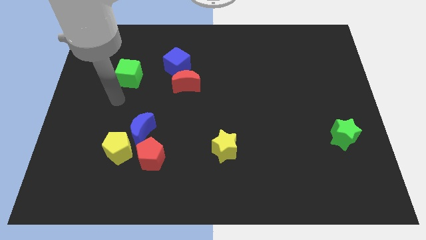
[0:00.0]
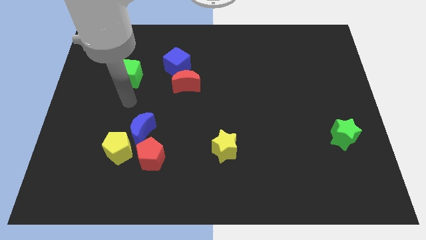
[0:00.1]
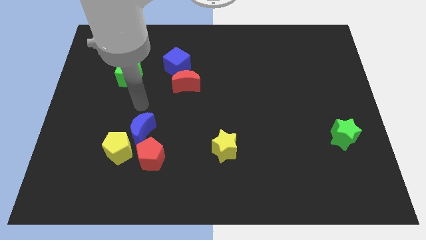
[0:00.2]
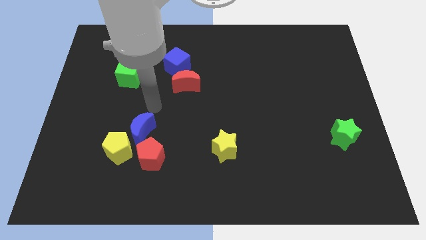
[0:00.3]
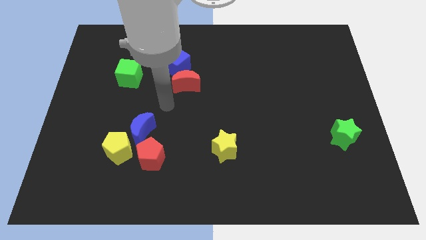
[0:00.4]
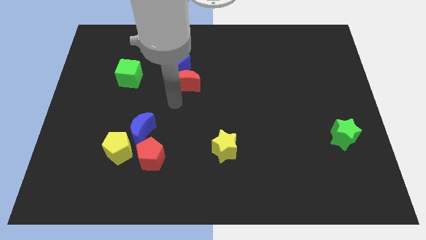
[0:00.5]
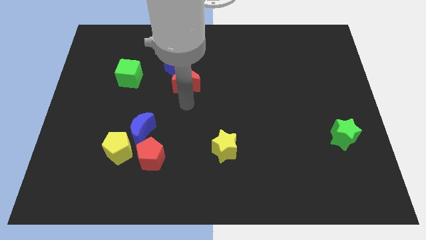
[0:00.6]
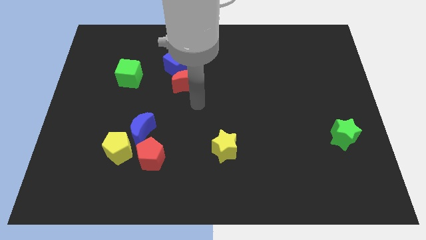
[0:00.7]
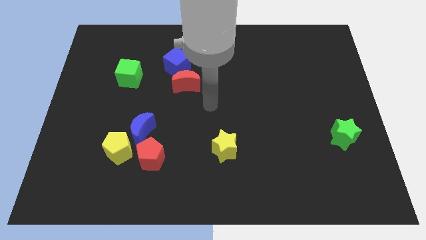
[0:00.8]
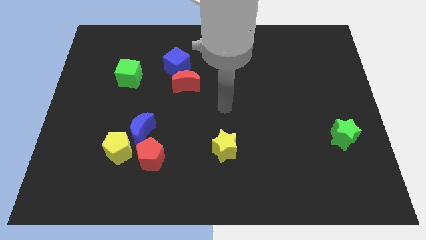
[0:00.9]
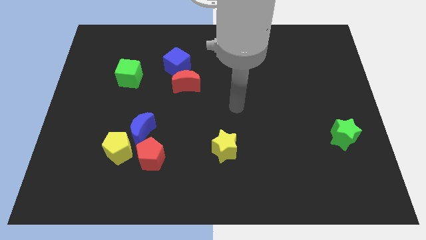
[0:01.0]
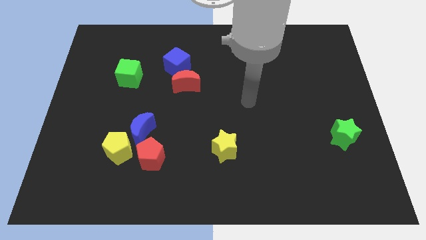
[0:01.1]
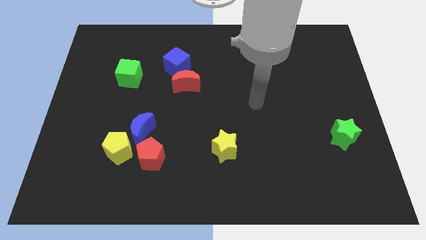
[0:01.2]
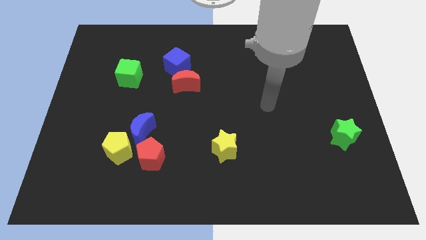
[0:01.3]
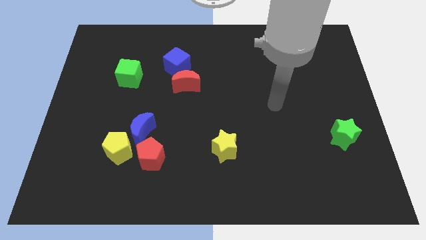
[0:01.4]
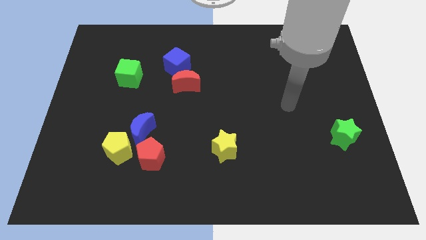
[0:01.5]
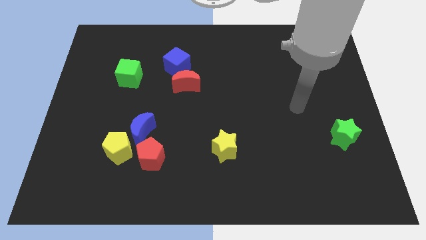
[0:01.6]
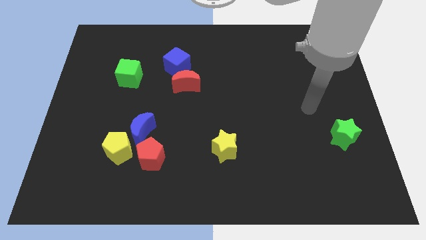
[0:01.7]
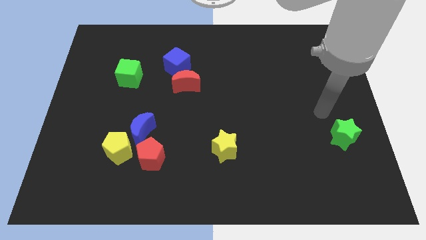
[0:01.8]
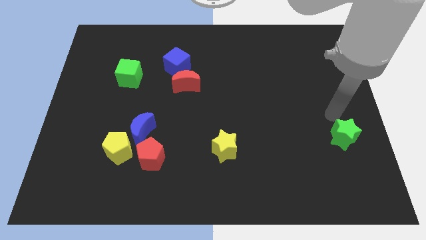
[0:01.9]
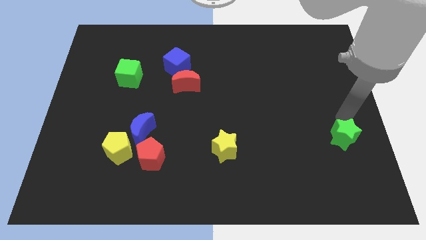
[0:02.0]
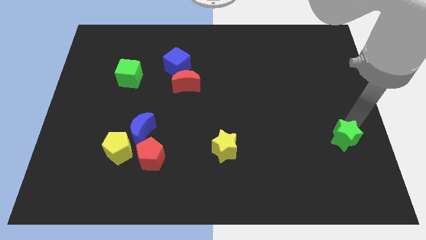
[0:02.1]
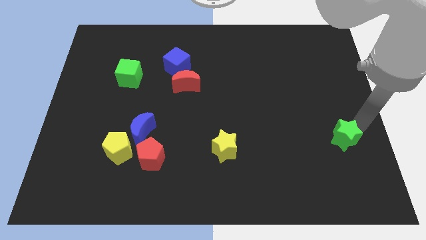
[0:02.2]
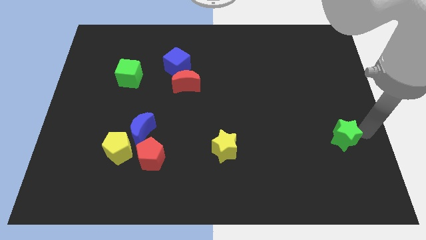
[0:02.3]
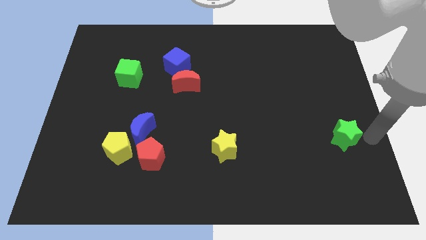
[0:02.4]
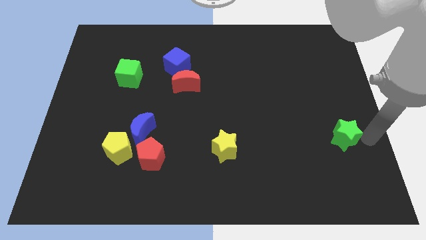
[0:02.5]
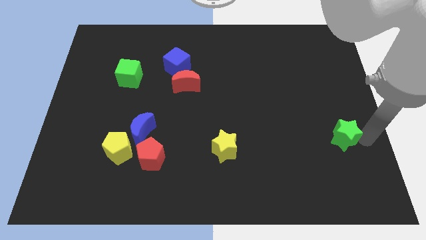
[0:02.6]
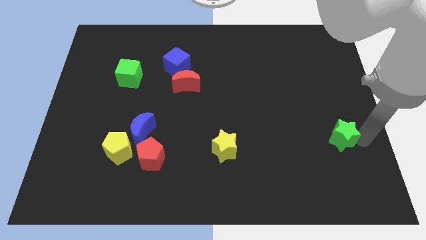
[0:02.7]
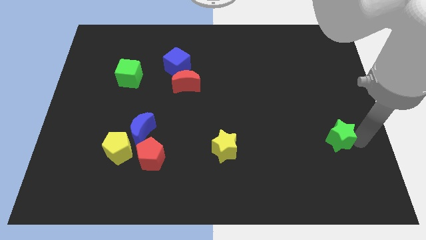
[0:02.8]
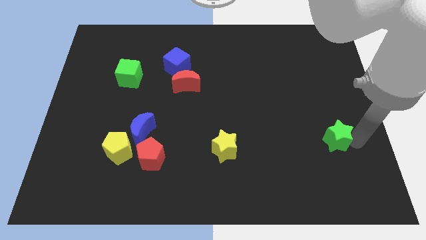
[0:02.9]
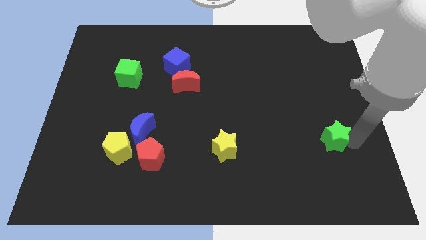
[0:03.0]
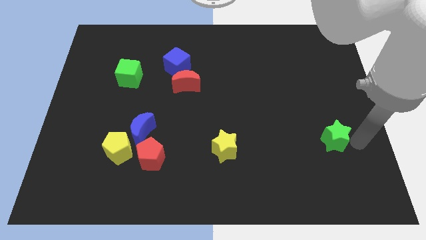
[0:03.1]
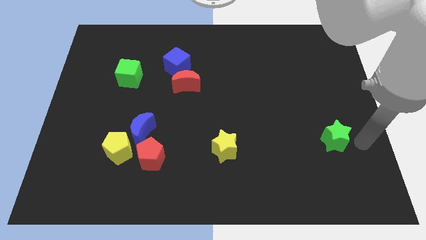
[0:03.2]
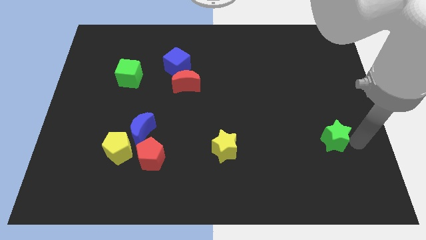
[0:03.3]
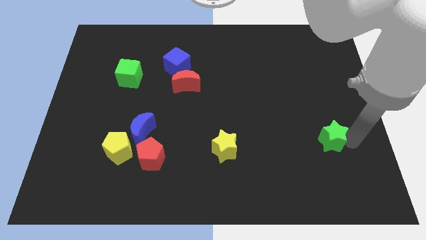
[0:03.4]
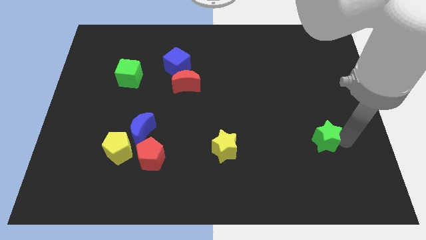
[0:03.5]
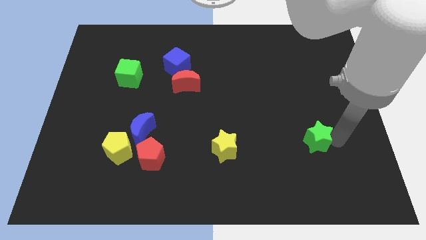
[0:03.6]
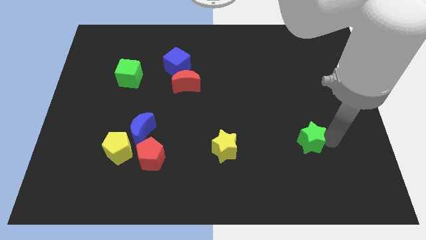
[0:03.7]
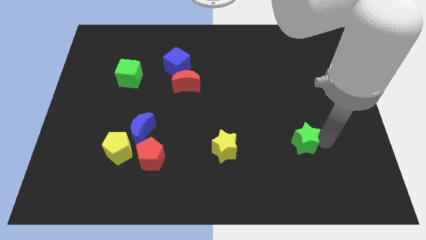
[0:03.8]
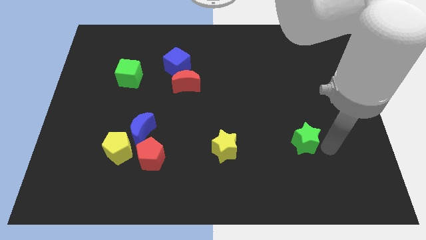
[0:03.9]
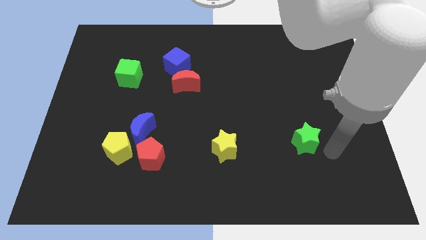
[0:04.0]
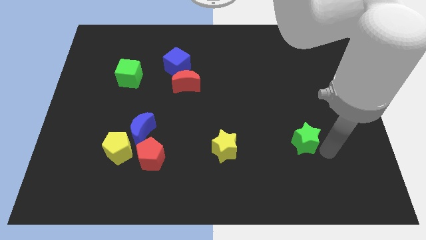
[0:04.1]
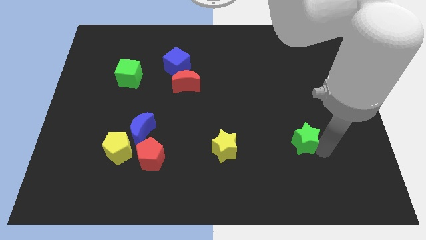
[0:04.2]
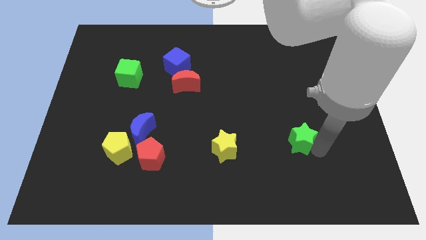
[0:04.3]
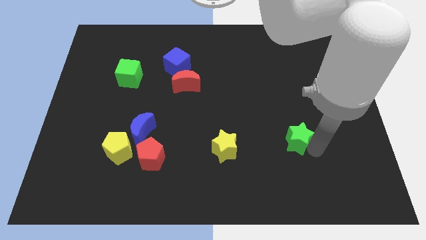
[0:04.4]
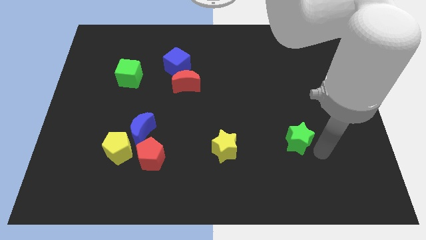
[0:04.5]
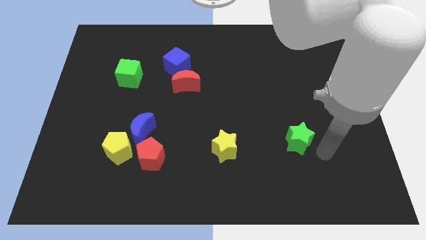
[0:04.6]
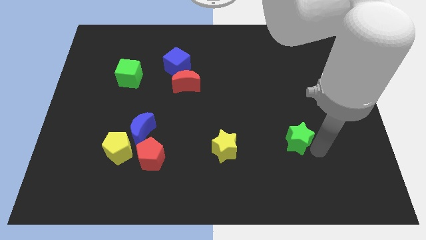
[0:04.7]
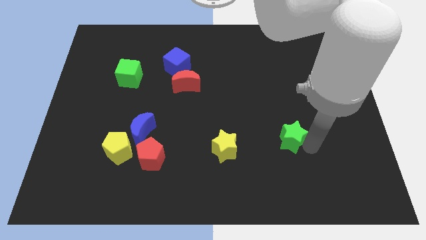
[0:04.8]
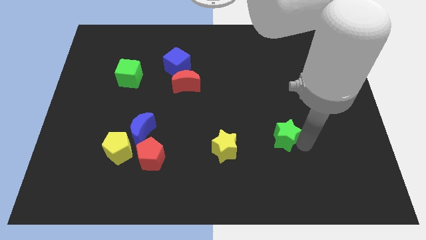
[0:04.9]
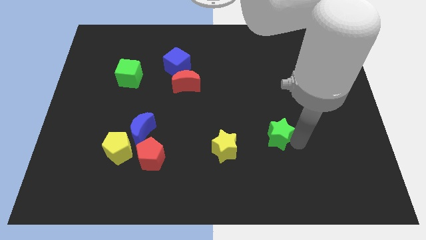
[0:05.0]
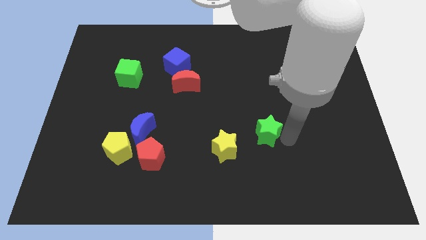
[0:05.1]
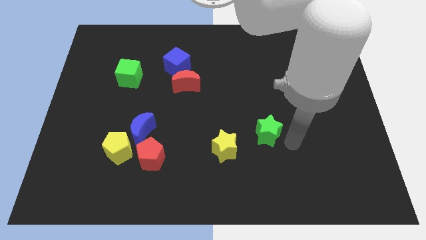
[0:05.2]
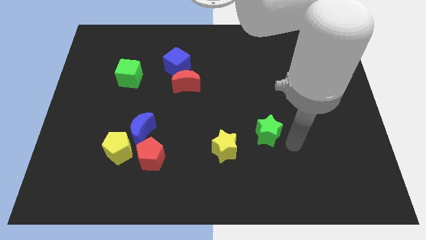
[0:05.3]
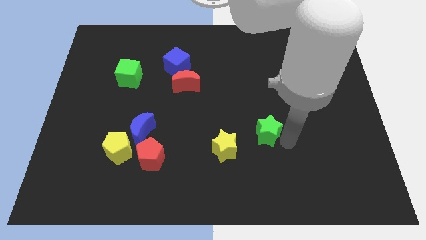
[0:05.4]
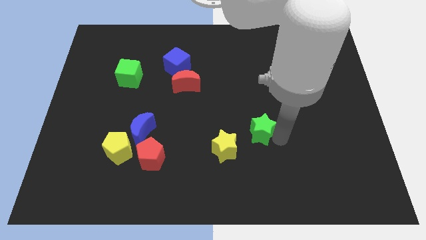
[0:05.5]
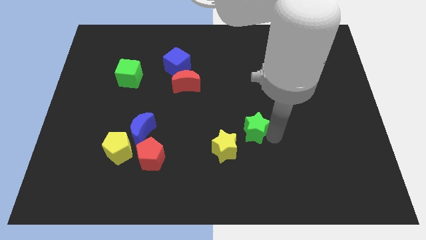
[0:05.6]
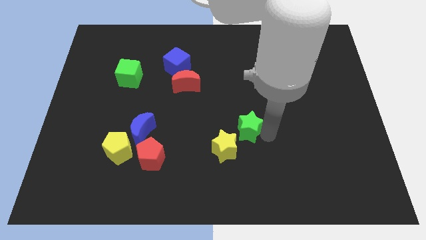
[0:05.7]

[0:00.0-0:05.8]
slide the green star to the left

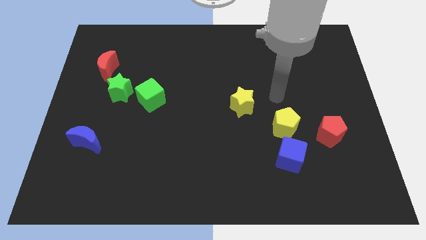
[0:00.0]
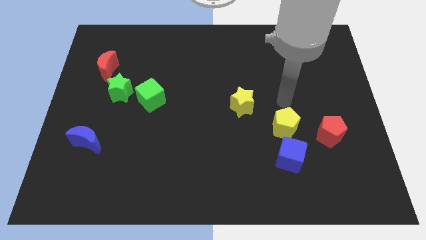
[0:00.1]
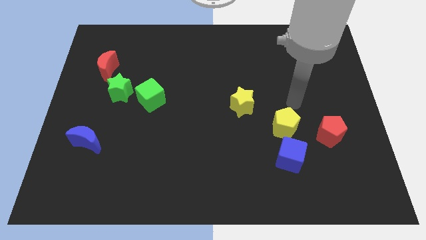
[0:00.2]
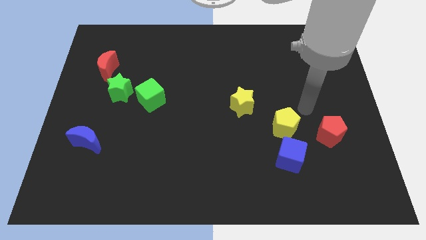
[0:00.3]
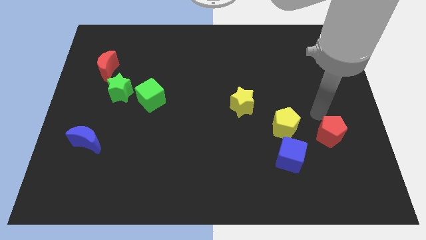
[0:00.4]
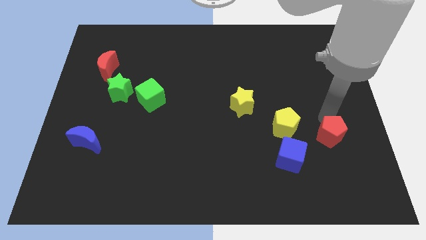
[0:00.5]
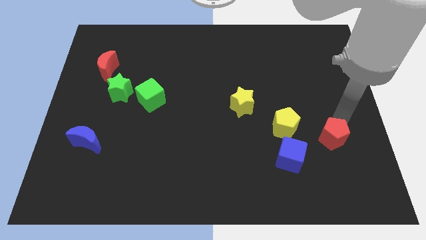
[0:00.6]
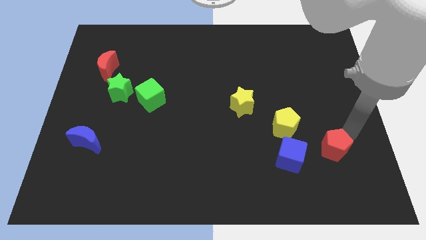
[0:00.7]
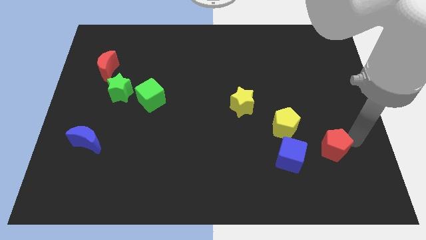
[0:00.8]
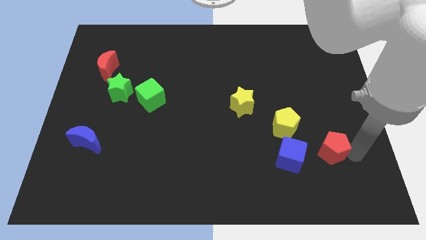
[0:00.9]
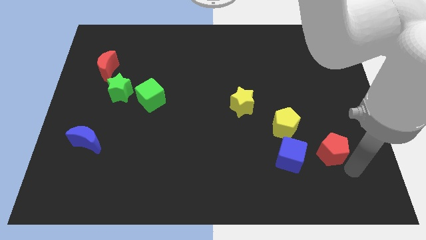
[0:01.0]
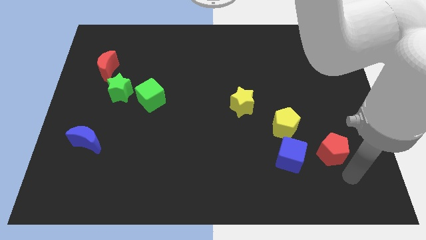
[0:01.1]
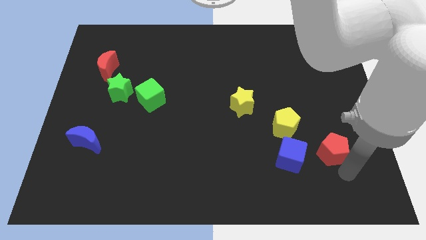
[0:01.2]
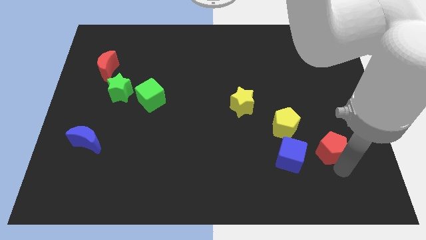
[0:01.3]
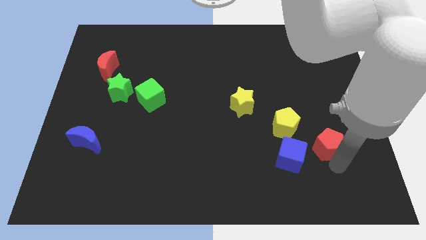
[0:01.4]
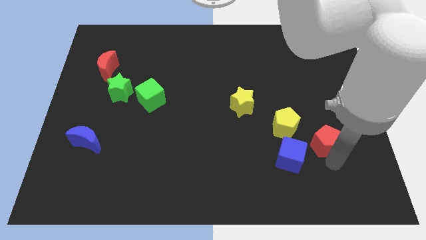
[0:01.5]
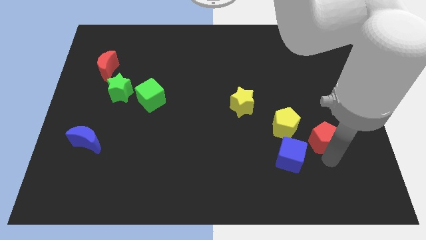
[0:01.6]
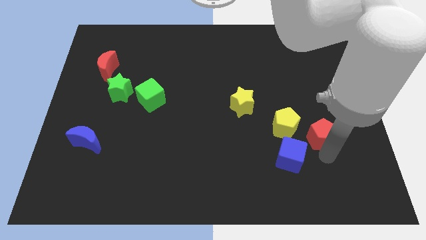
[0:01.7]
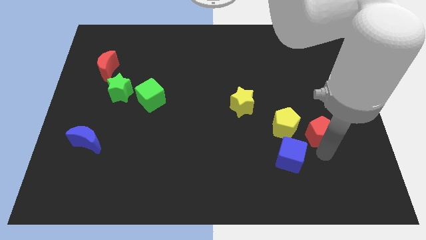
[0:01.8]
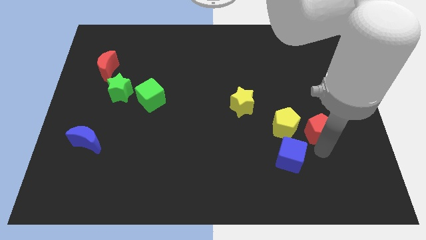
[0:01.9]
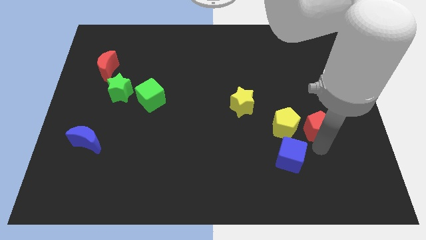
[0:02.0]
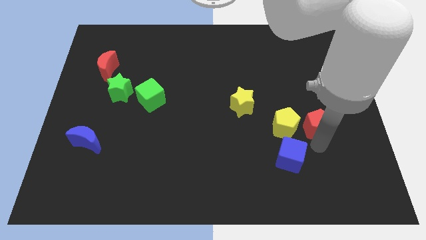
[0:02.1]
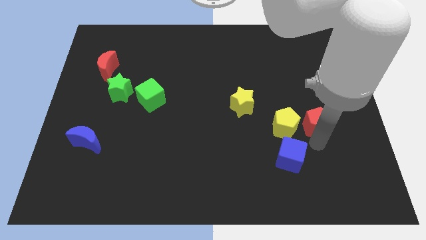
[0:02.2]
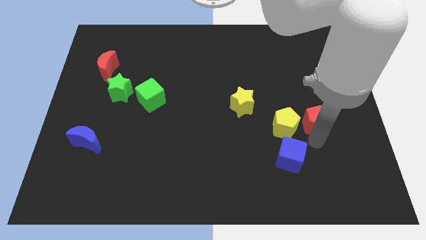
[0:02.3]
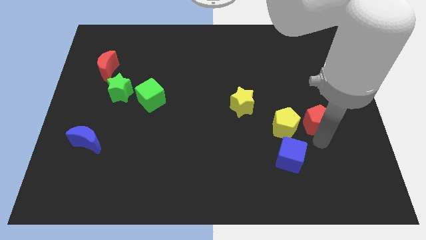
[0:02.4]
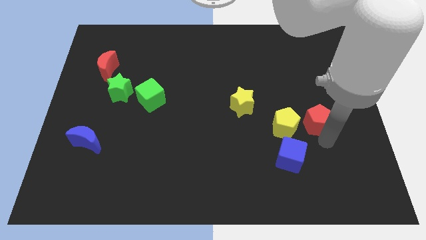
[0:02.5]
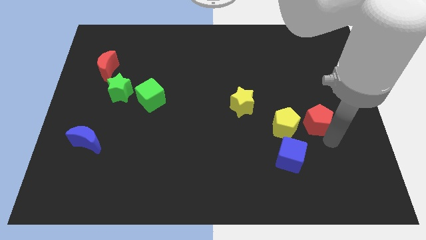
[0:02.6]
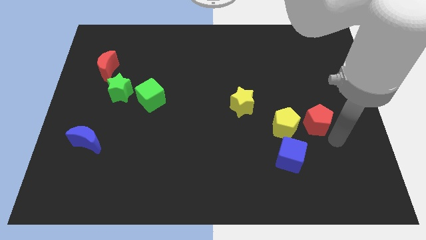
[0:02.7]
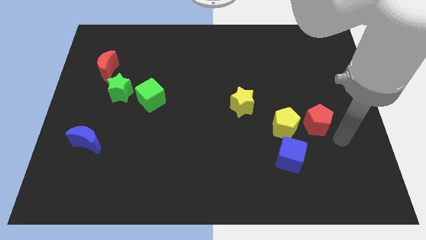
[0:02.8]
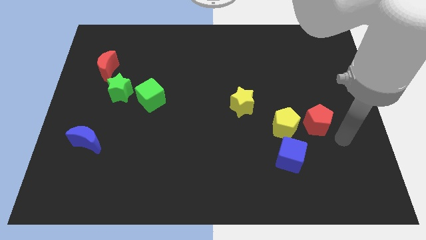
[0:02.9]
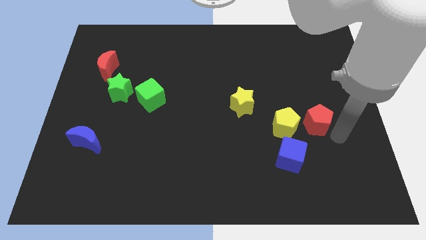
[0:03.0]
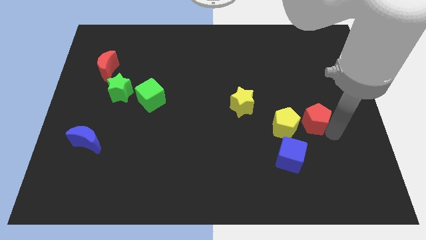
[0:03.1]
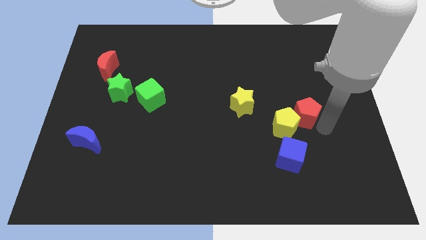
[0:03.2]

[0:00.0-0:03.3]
slide the red pentagon up and left slightly
